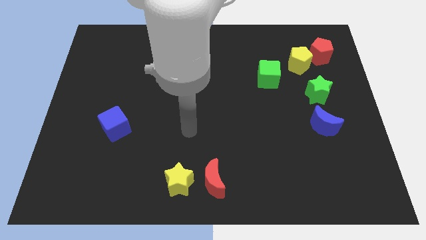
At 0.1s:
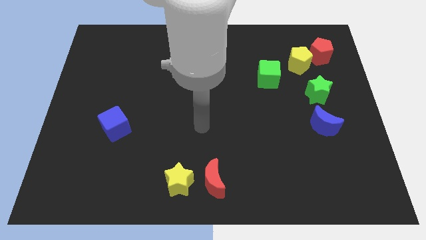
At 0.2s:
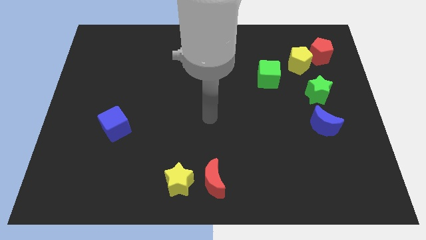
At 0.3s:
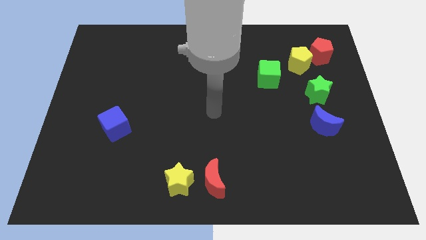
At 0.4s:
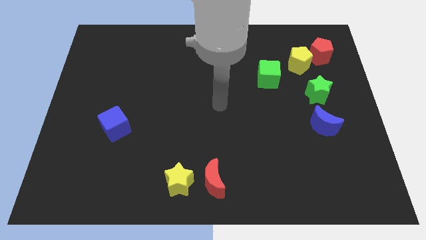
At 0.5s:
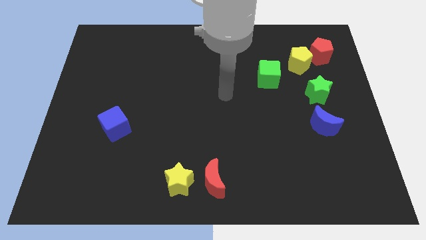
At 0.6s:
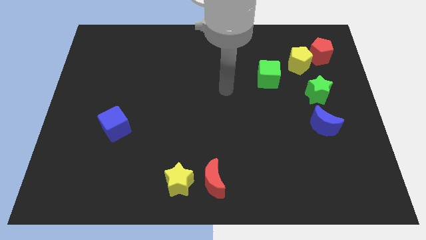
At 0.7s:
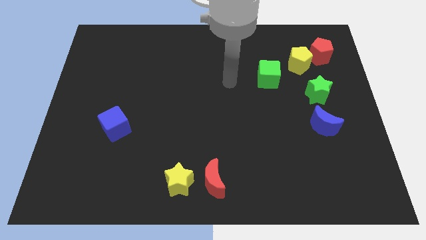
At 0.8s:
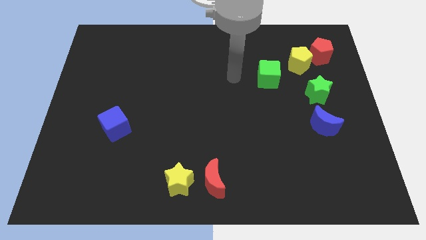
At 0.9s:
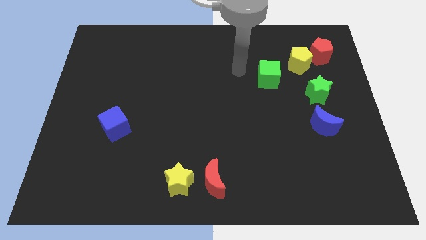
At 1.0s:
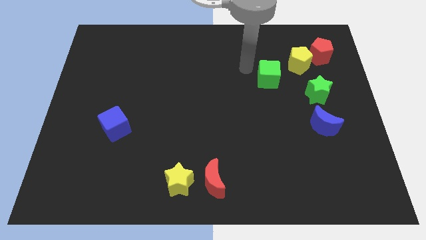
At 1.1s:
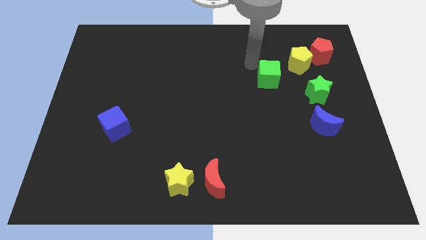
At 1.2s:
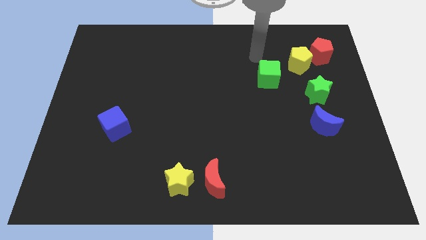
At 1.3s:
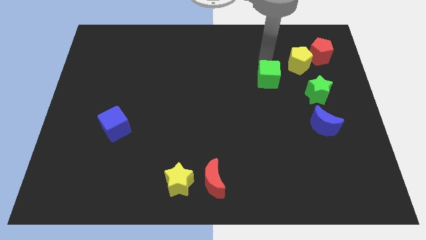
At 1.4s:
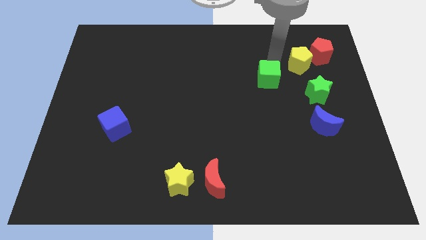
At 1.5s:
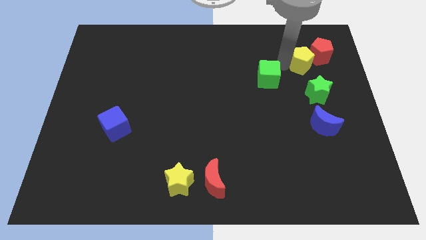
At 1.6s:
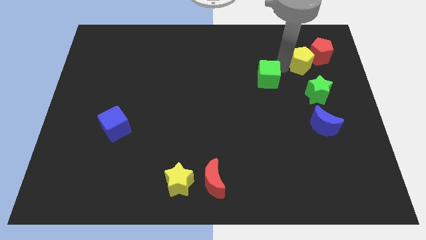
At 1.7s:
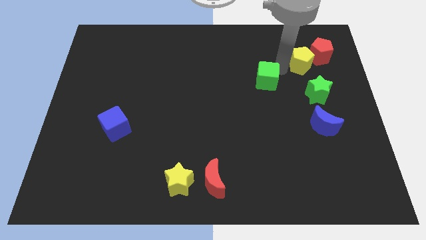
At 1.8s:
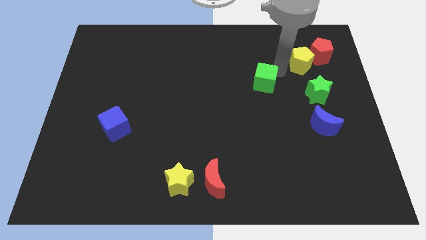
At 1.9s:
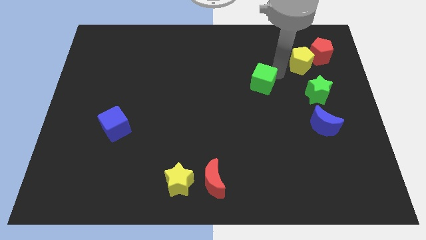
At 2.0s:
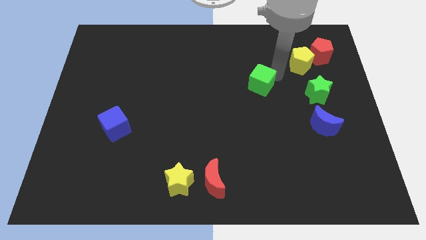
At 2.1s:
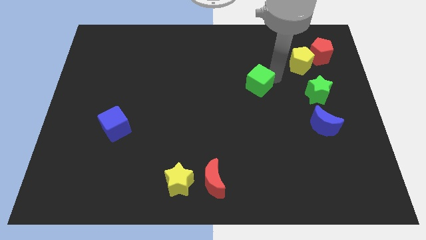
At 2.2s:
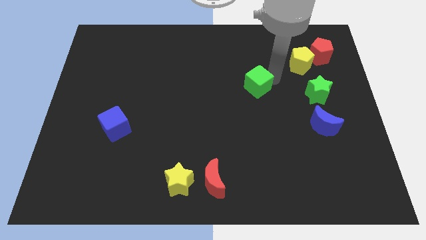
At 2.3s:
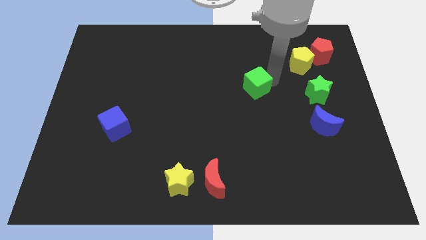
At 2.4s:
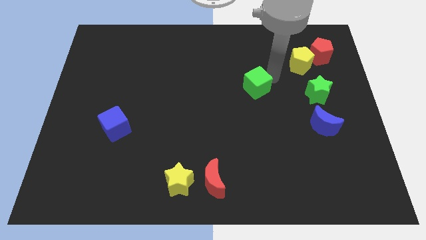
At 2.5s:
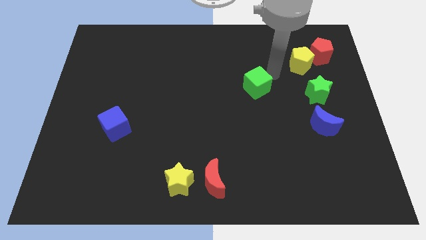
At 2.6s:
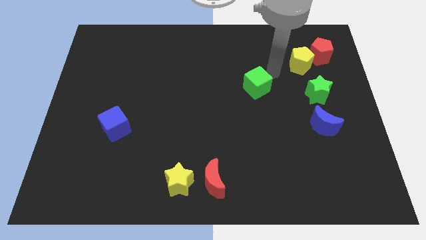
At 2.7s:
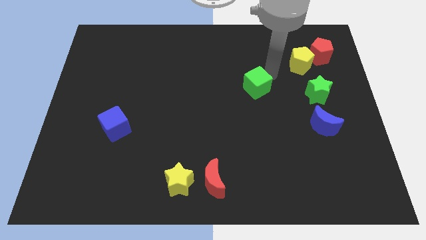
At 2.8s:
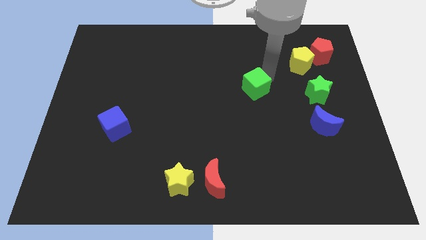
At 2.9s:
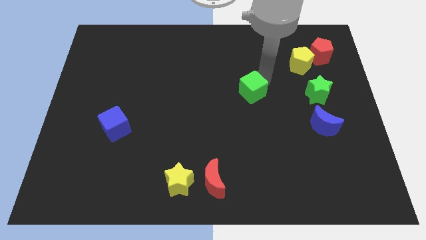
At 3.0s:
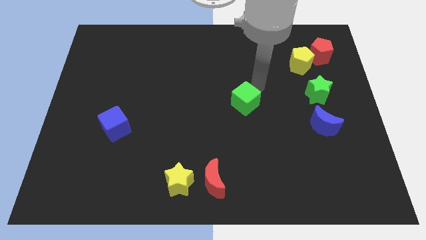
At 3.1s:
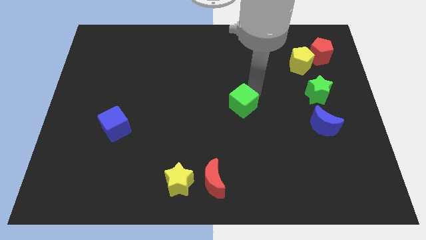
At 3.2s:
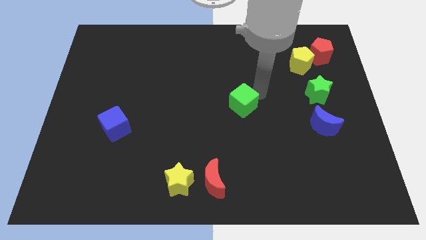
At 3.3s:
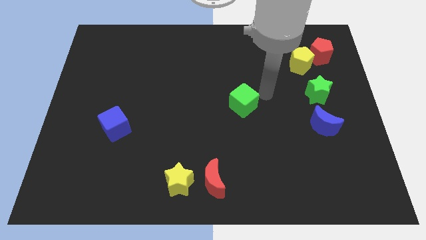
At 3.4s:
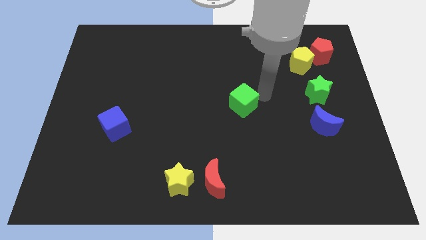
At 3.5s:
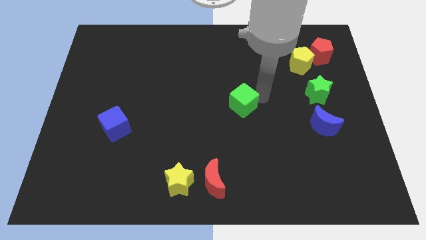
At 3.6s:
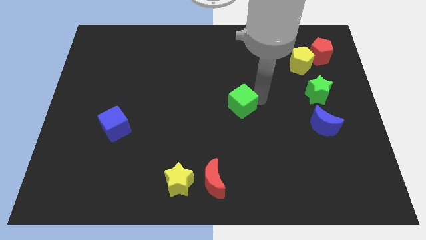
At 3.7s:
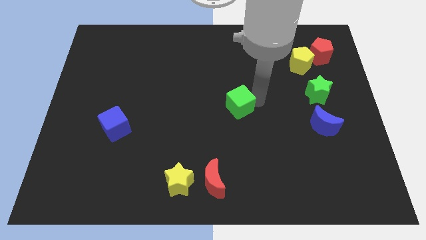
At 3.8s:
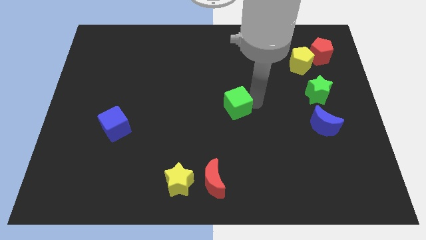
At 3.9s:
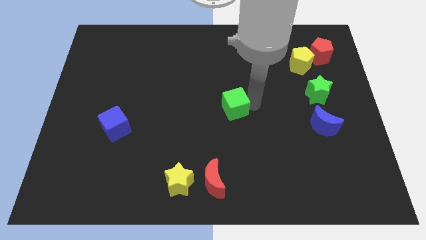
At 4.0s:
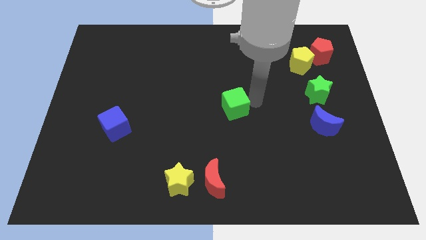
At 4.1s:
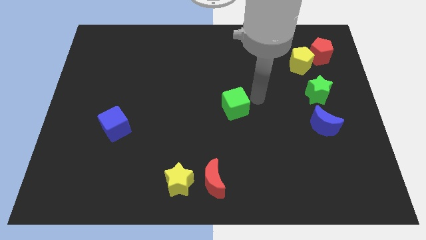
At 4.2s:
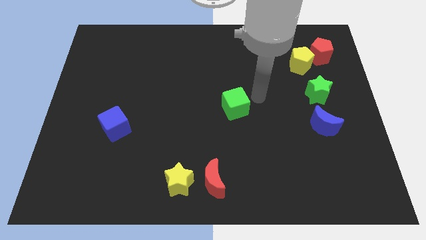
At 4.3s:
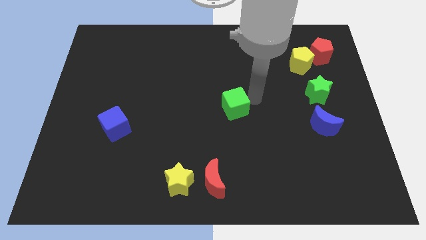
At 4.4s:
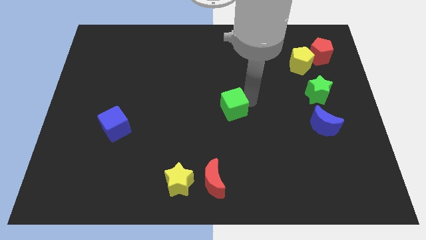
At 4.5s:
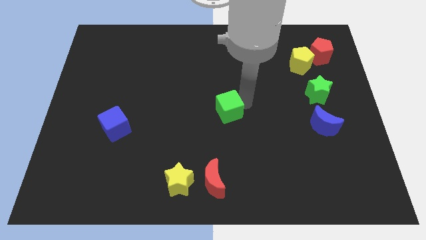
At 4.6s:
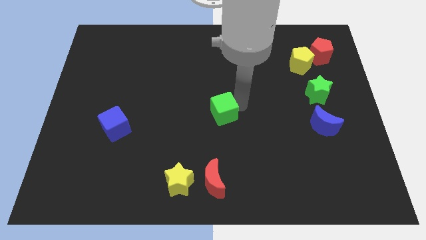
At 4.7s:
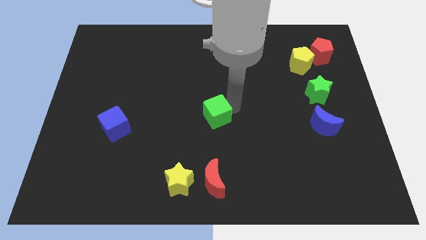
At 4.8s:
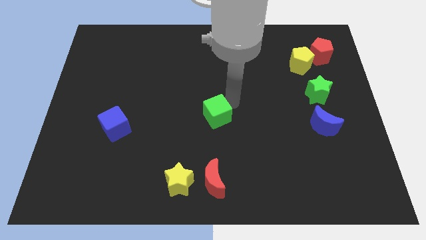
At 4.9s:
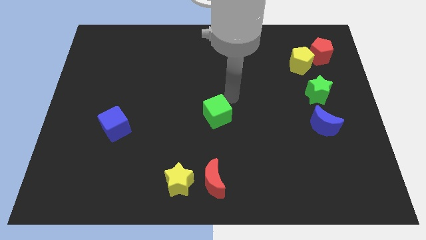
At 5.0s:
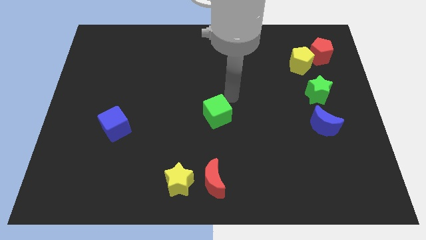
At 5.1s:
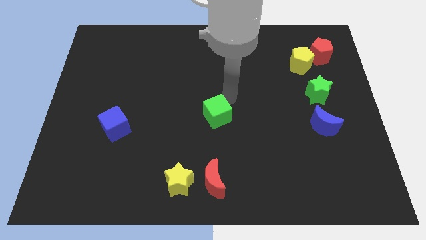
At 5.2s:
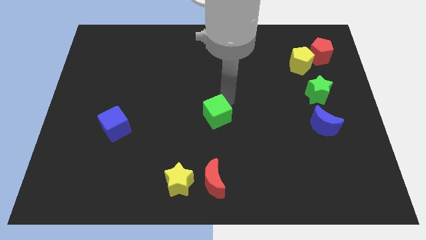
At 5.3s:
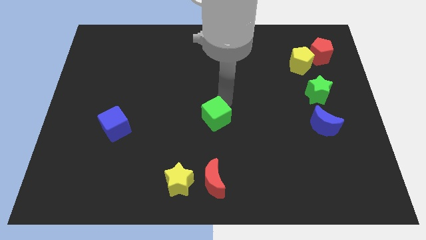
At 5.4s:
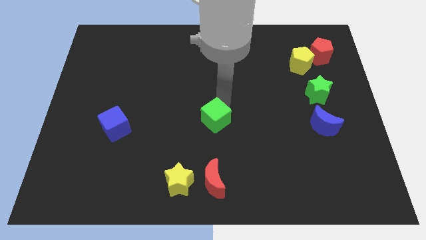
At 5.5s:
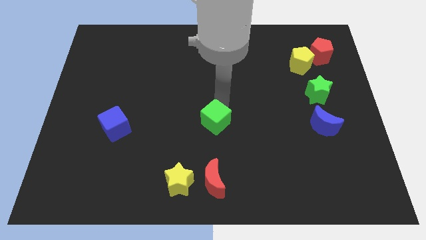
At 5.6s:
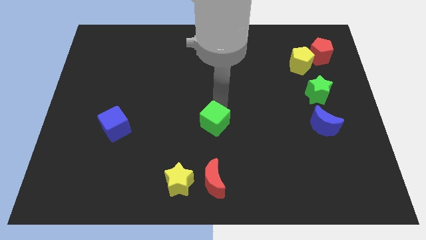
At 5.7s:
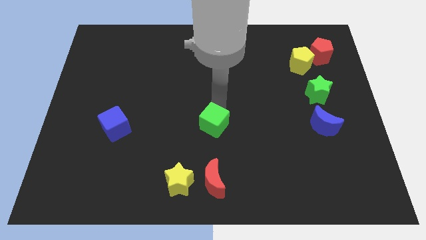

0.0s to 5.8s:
slide the green cube downwards and then to the left

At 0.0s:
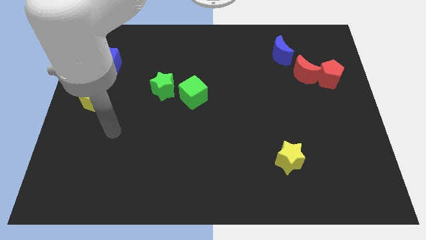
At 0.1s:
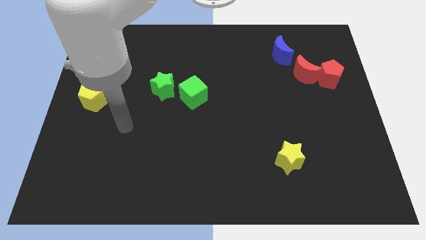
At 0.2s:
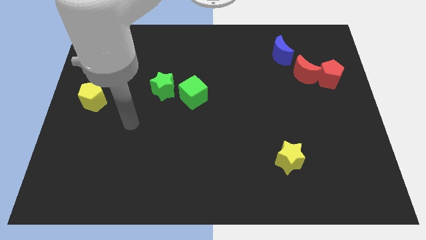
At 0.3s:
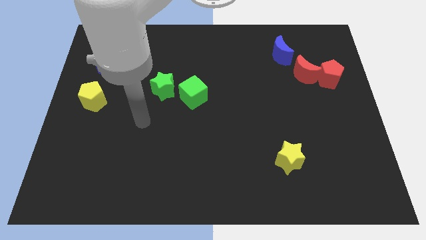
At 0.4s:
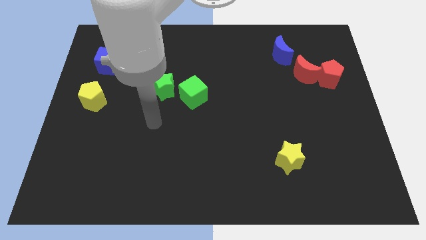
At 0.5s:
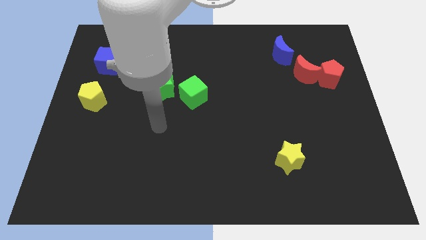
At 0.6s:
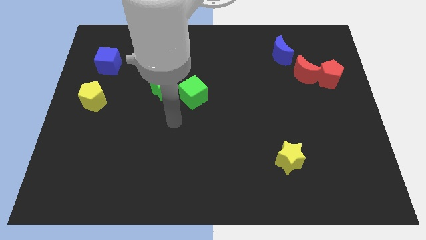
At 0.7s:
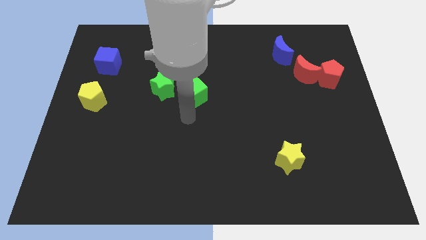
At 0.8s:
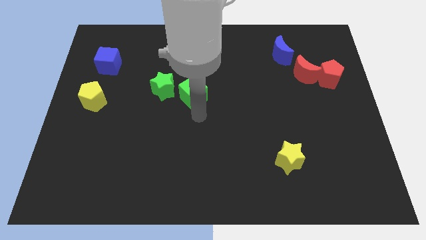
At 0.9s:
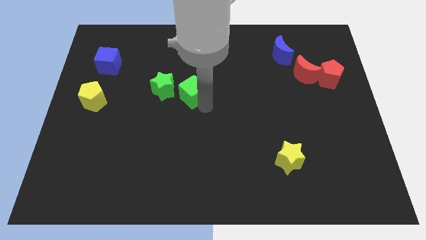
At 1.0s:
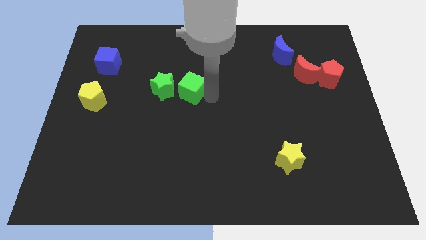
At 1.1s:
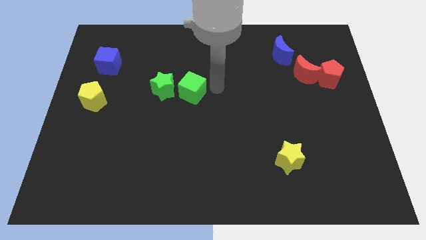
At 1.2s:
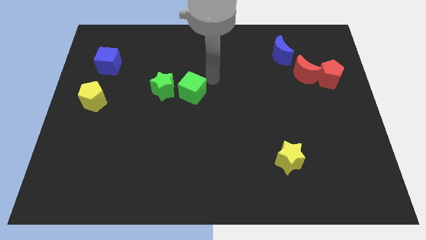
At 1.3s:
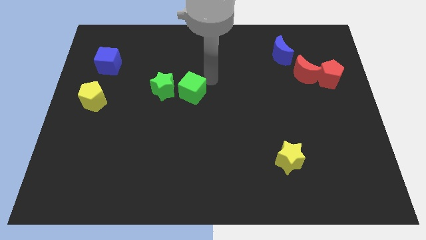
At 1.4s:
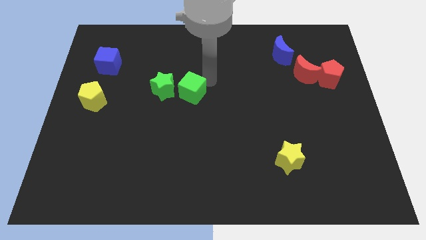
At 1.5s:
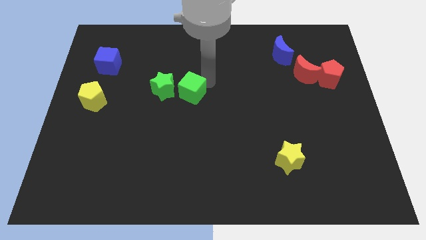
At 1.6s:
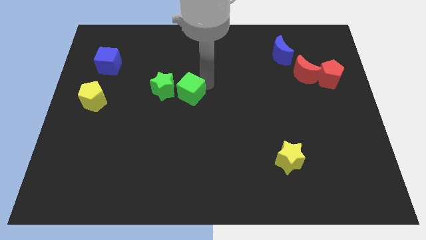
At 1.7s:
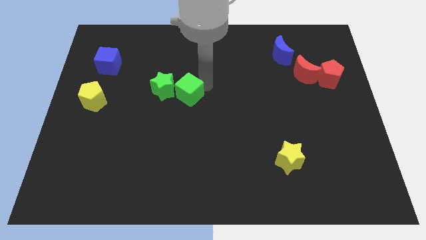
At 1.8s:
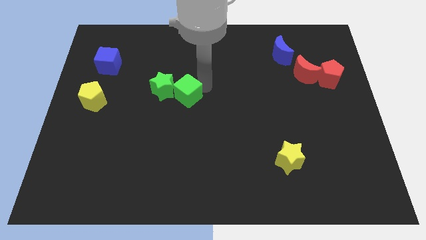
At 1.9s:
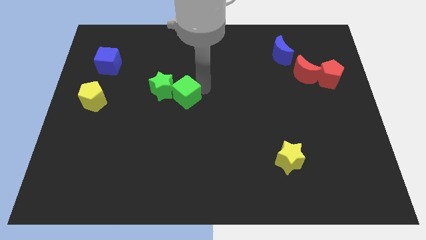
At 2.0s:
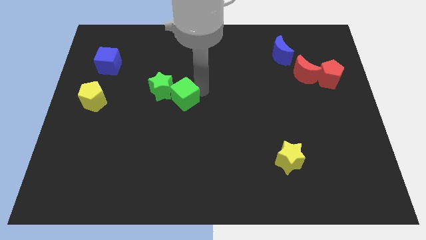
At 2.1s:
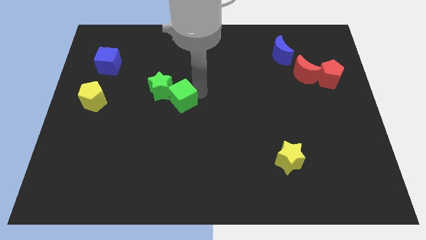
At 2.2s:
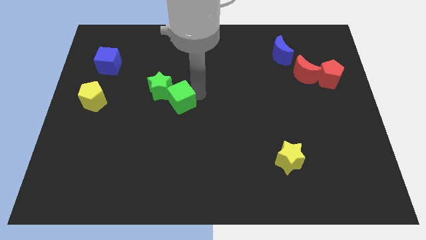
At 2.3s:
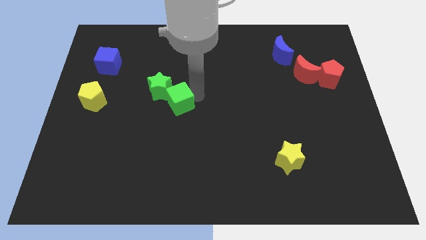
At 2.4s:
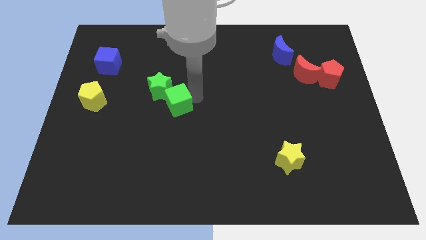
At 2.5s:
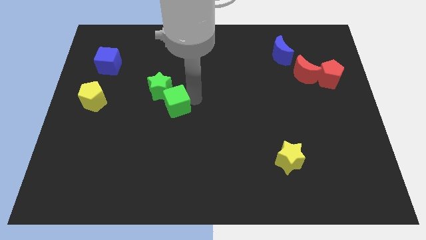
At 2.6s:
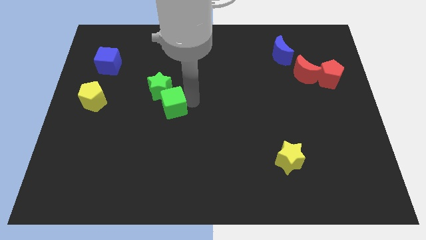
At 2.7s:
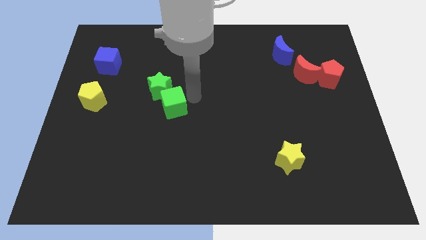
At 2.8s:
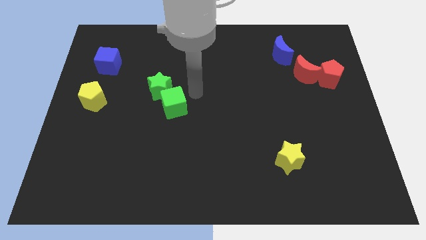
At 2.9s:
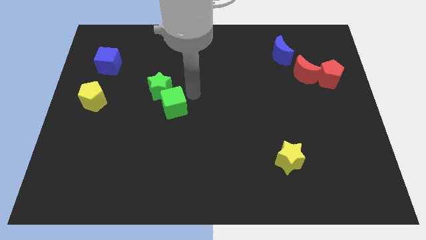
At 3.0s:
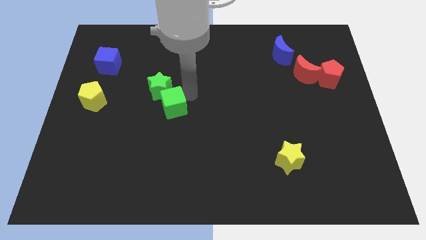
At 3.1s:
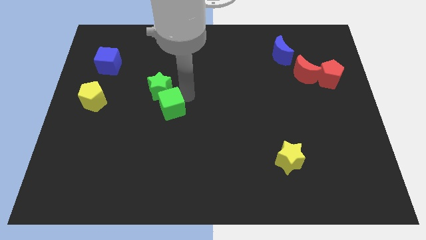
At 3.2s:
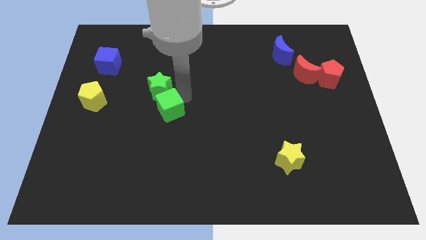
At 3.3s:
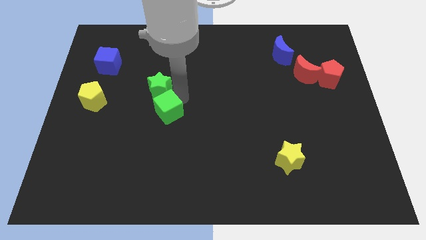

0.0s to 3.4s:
move the green cube a little diagonally down and left
